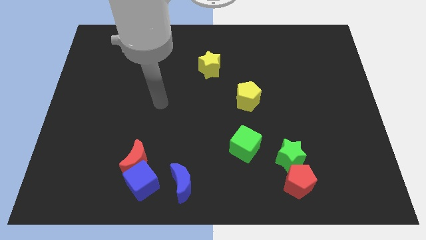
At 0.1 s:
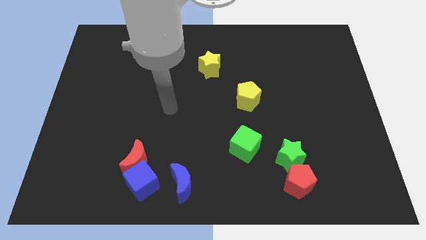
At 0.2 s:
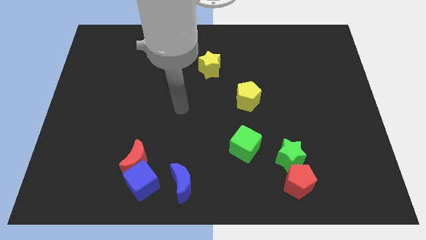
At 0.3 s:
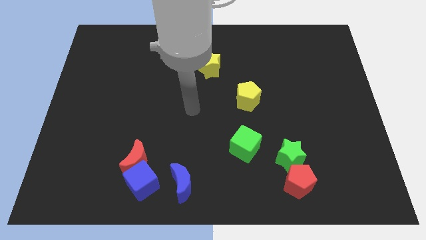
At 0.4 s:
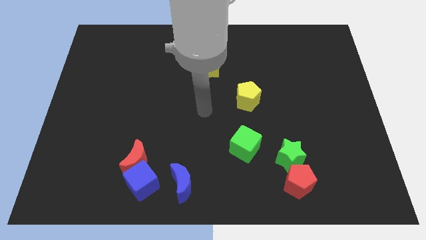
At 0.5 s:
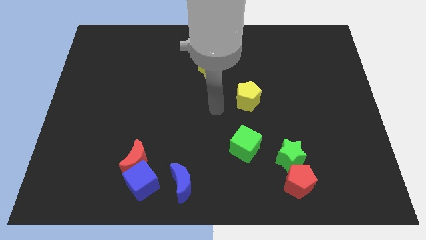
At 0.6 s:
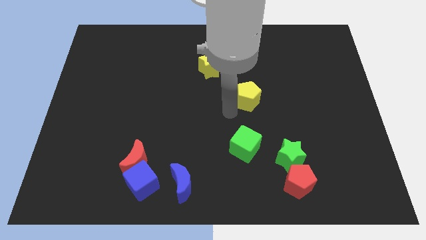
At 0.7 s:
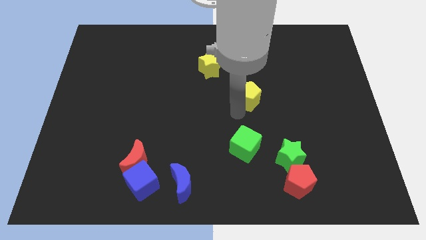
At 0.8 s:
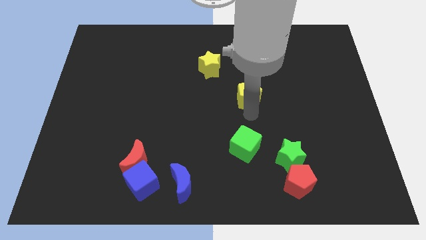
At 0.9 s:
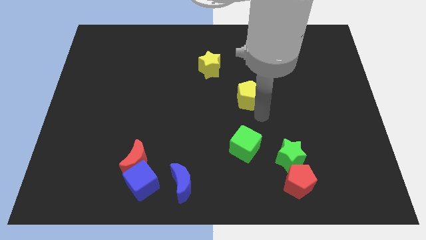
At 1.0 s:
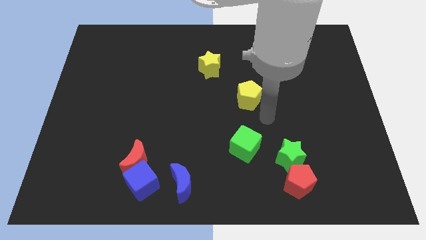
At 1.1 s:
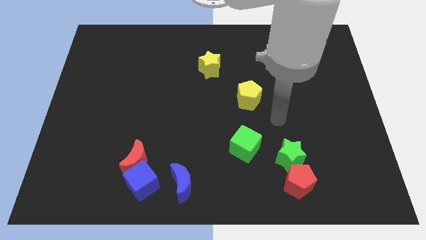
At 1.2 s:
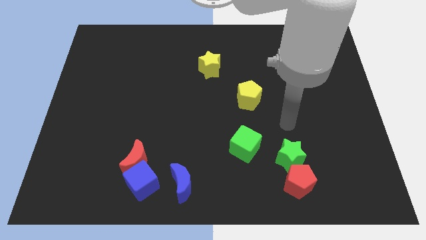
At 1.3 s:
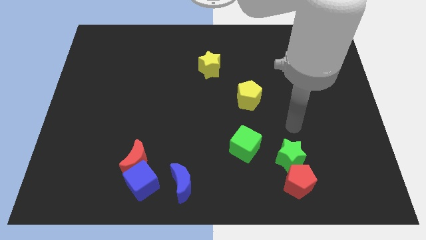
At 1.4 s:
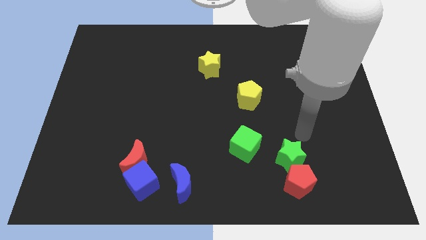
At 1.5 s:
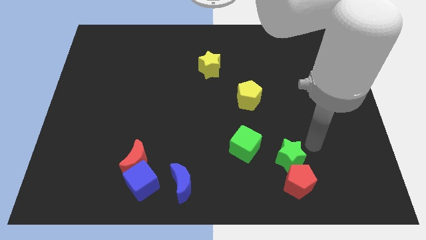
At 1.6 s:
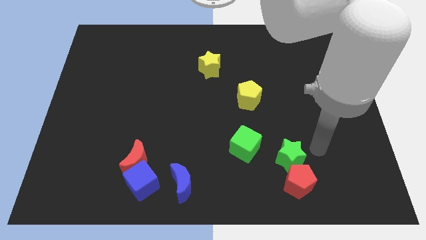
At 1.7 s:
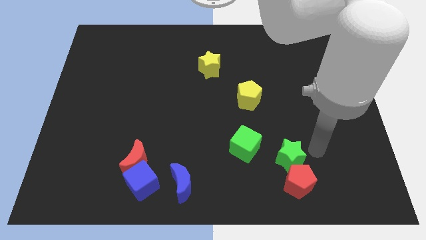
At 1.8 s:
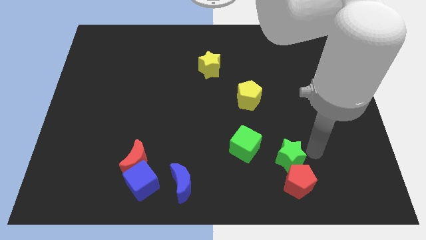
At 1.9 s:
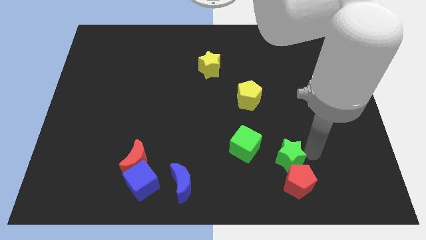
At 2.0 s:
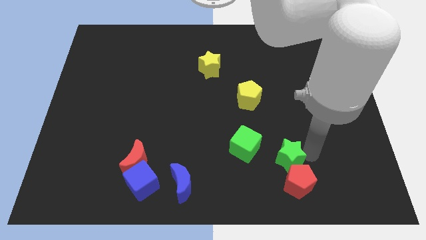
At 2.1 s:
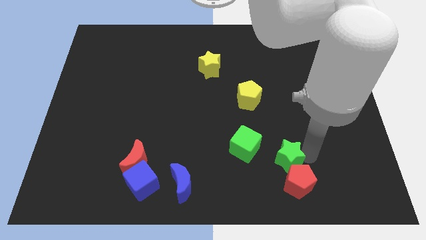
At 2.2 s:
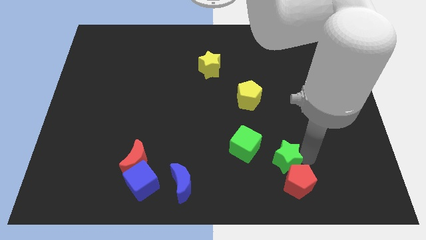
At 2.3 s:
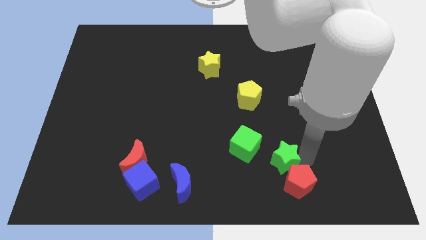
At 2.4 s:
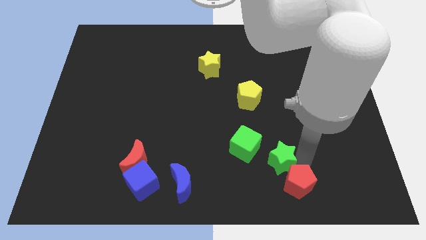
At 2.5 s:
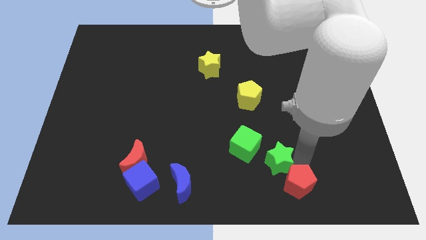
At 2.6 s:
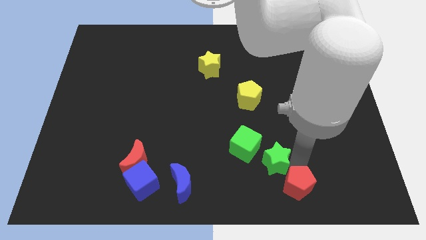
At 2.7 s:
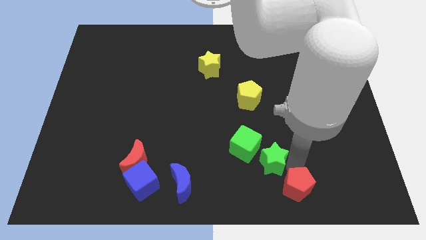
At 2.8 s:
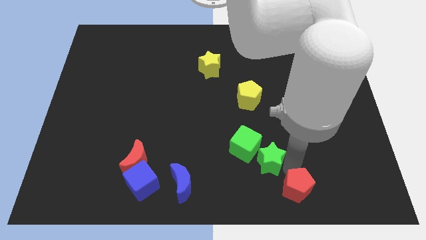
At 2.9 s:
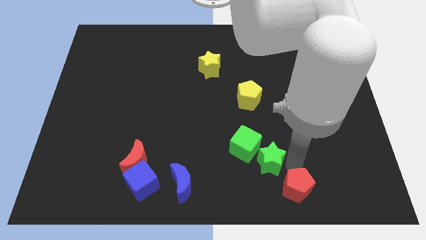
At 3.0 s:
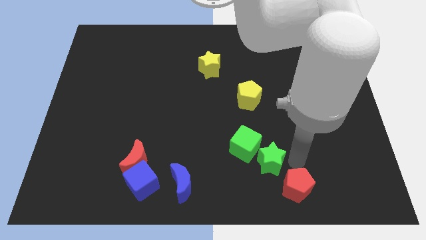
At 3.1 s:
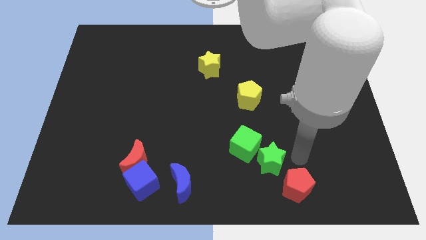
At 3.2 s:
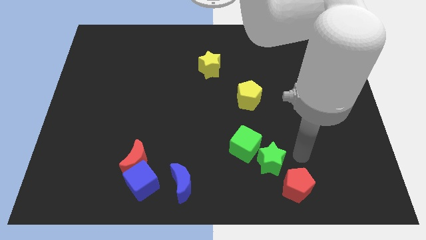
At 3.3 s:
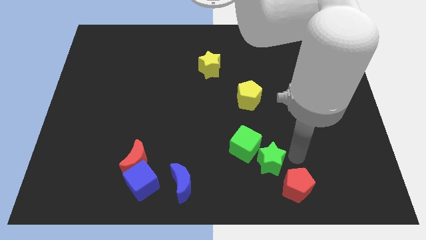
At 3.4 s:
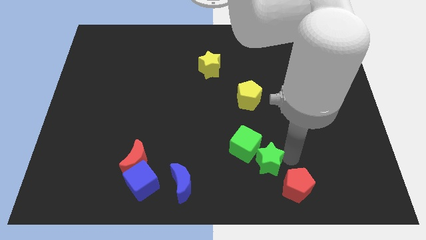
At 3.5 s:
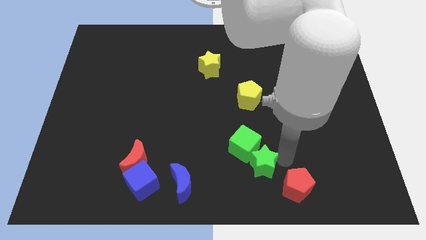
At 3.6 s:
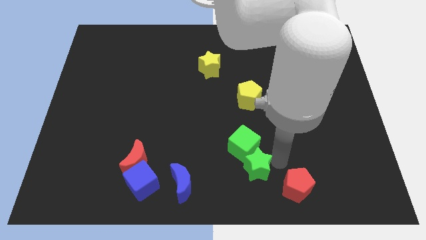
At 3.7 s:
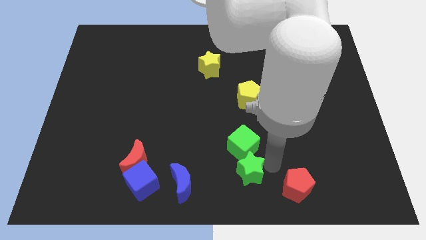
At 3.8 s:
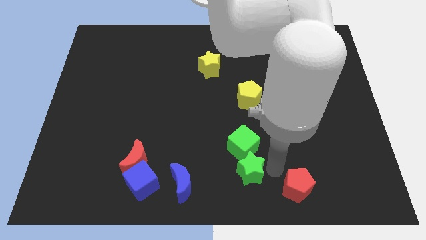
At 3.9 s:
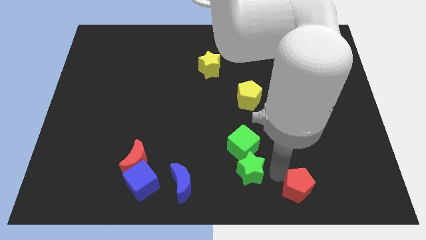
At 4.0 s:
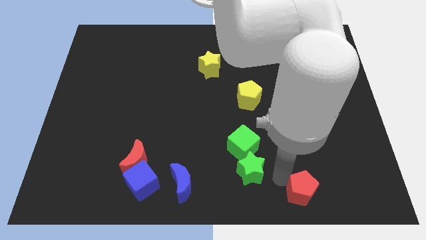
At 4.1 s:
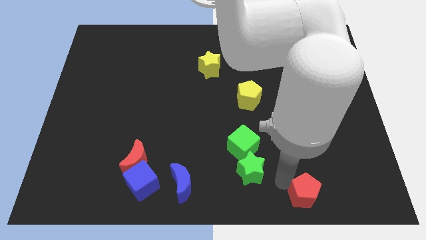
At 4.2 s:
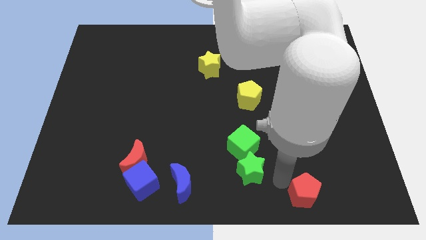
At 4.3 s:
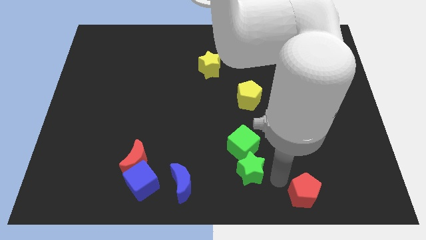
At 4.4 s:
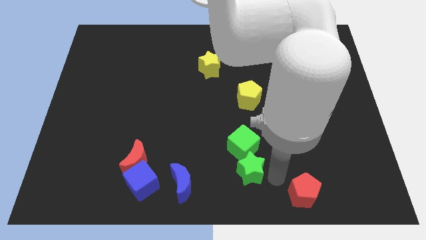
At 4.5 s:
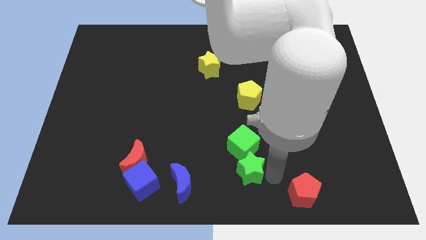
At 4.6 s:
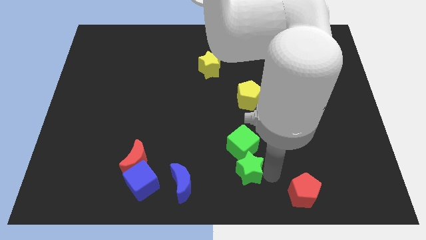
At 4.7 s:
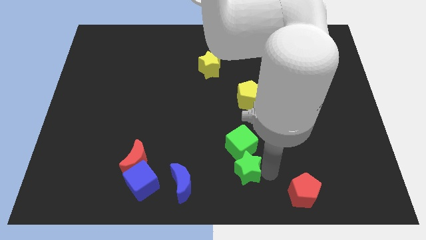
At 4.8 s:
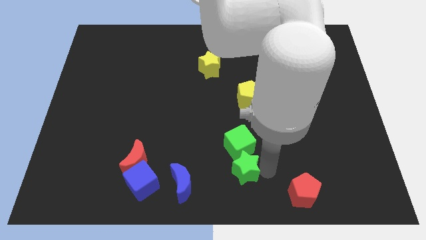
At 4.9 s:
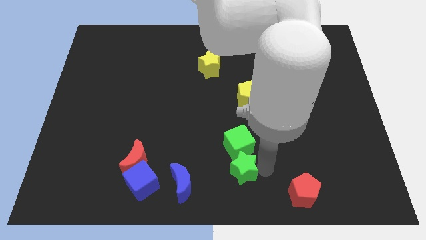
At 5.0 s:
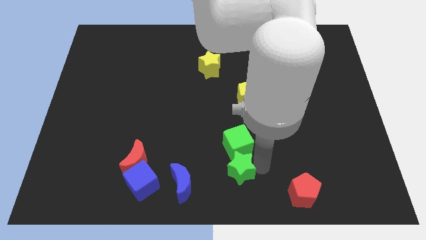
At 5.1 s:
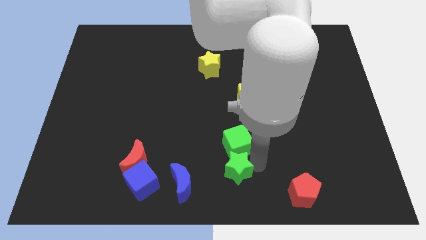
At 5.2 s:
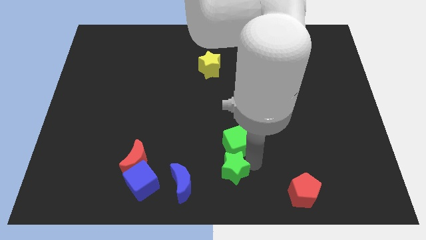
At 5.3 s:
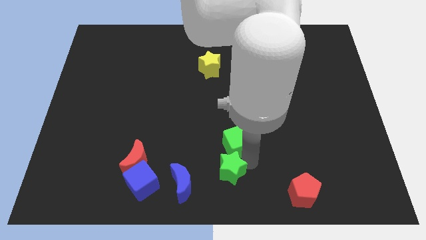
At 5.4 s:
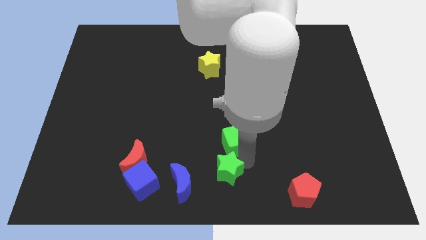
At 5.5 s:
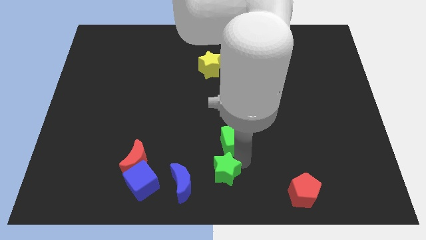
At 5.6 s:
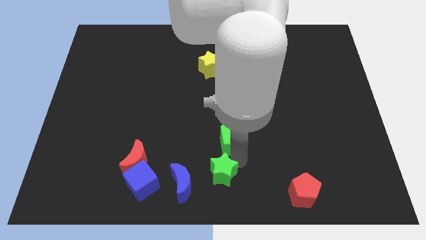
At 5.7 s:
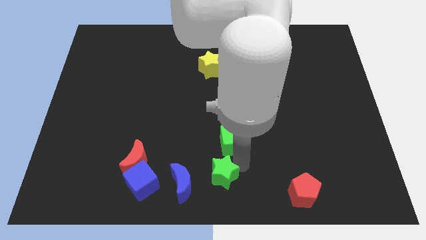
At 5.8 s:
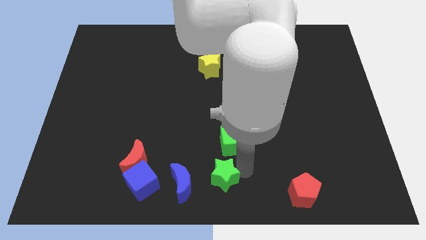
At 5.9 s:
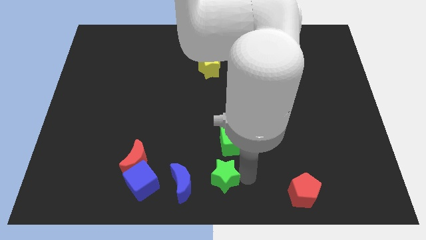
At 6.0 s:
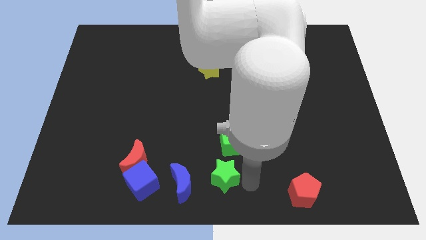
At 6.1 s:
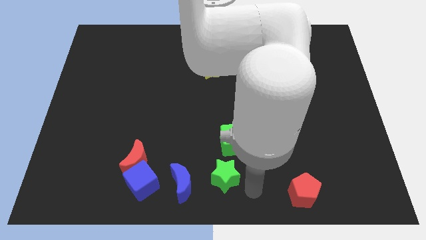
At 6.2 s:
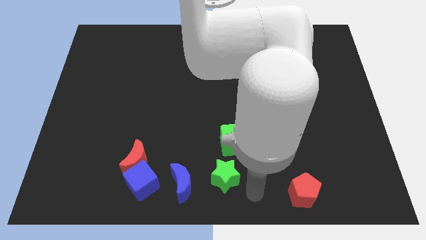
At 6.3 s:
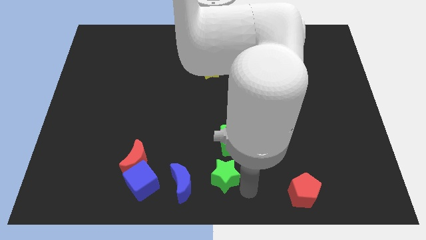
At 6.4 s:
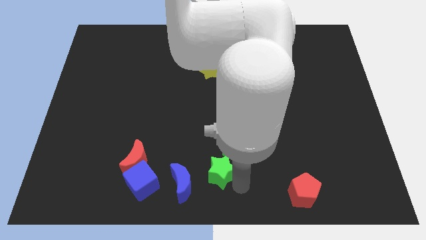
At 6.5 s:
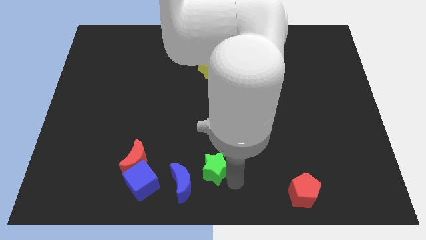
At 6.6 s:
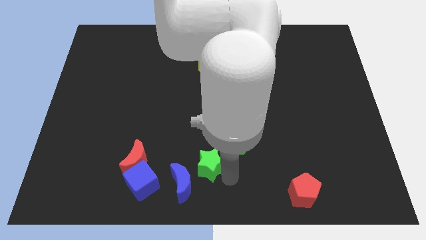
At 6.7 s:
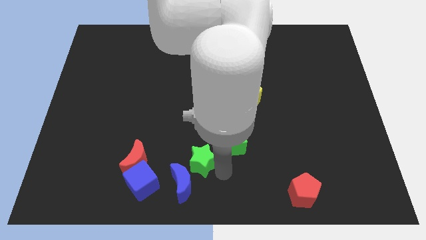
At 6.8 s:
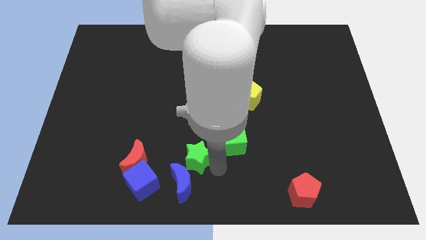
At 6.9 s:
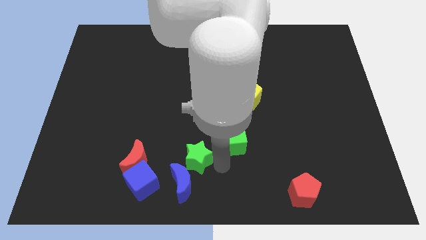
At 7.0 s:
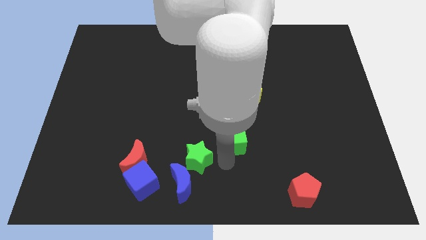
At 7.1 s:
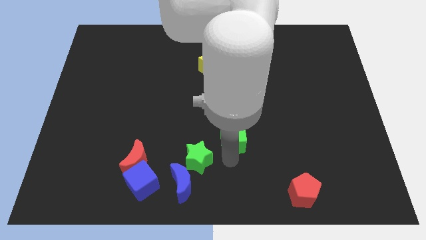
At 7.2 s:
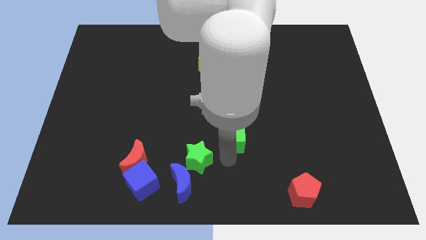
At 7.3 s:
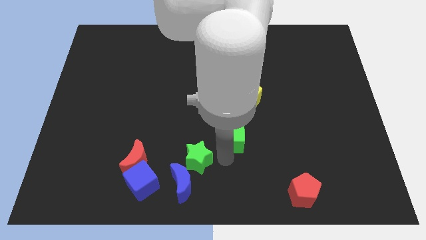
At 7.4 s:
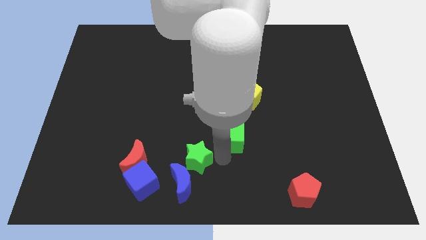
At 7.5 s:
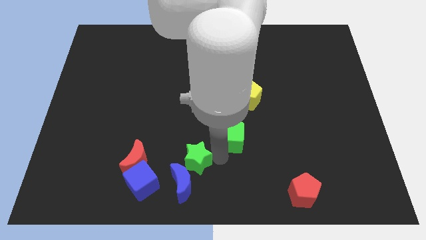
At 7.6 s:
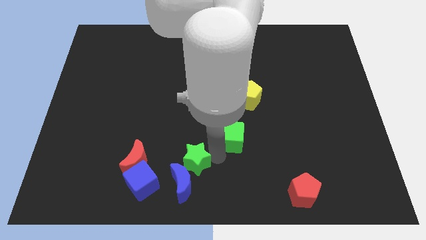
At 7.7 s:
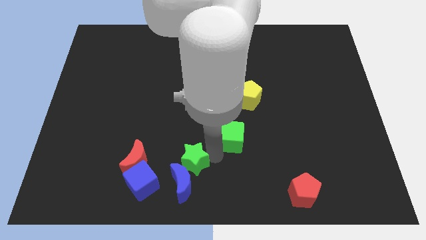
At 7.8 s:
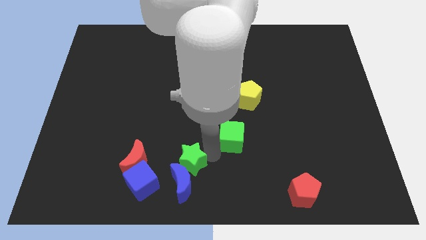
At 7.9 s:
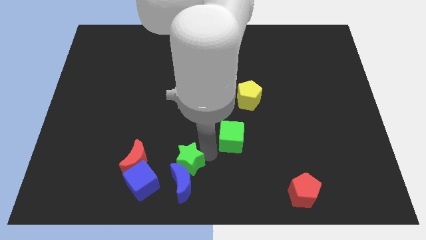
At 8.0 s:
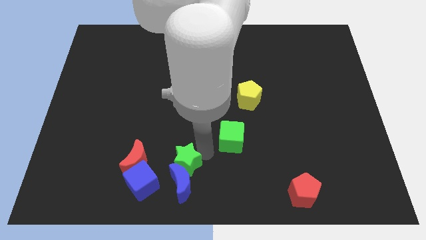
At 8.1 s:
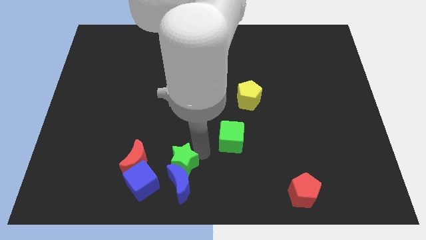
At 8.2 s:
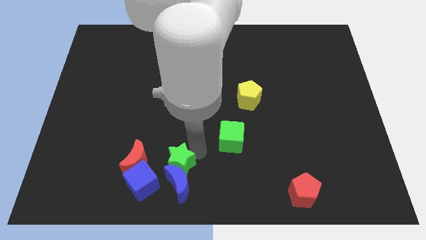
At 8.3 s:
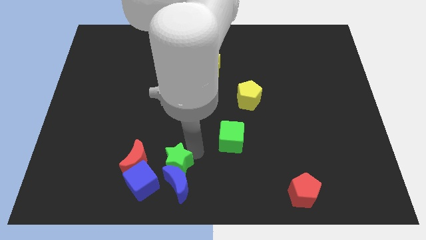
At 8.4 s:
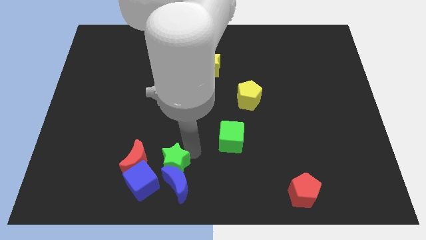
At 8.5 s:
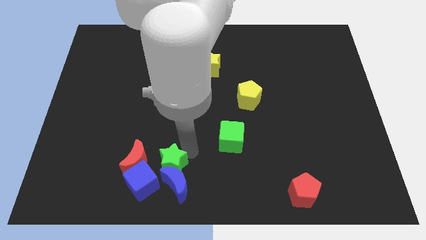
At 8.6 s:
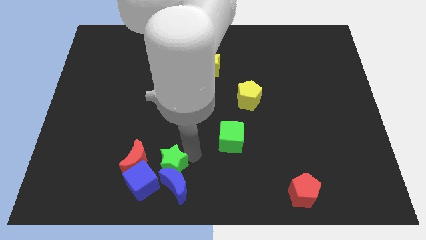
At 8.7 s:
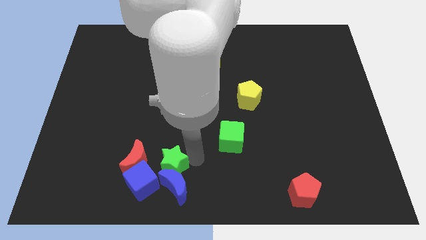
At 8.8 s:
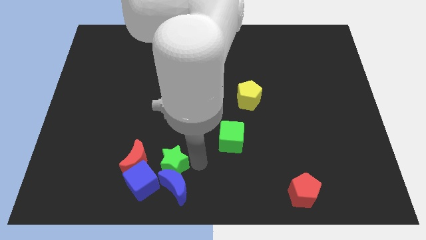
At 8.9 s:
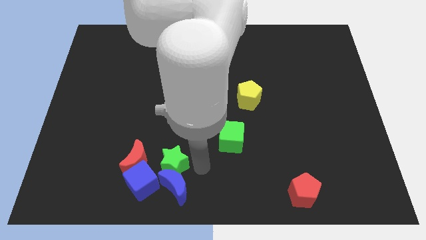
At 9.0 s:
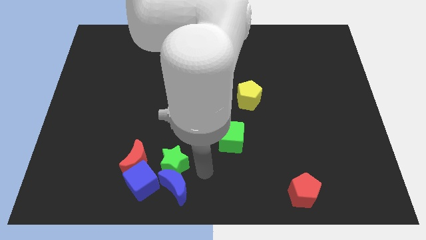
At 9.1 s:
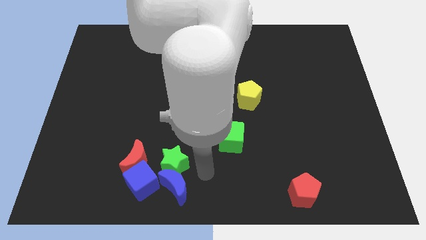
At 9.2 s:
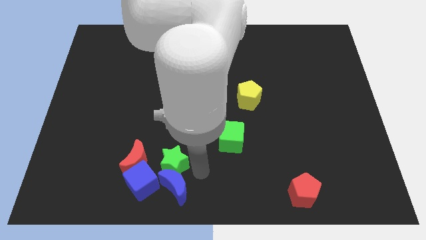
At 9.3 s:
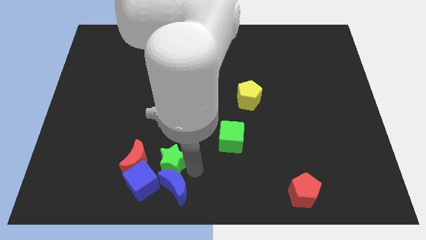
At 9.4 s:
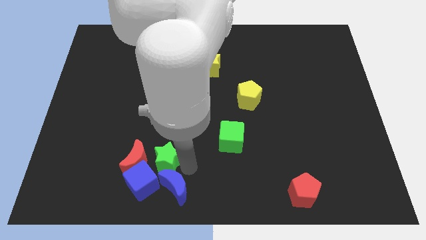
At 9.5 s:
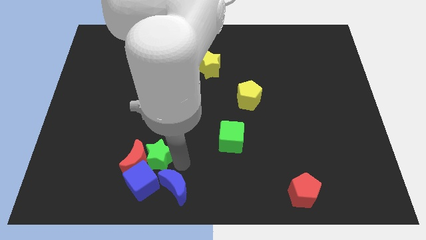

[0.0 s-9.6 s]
push the green star close to the red moon
